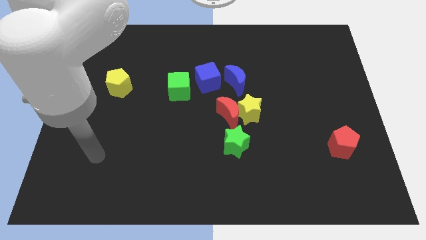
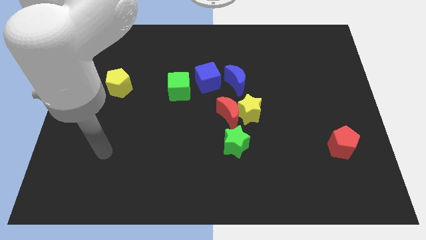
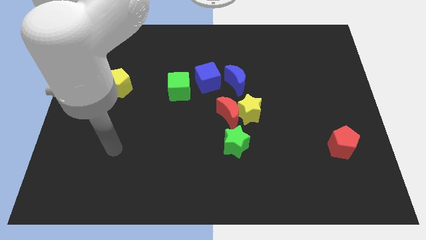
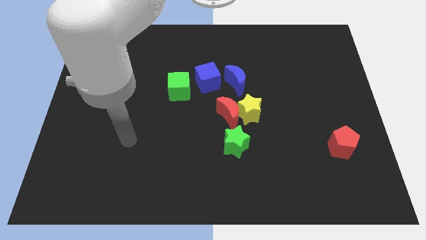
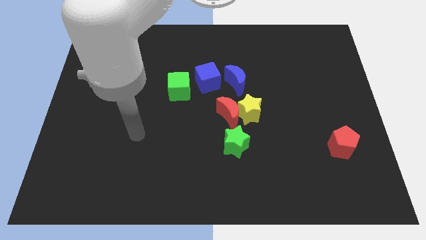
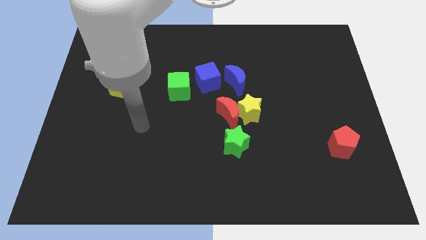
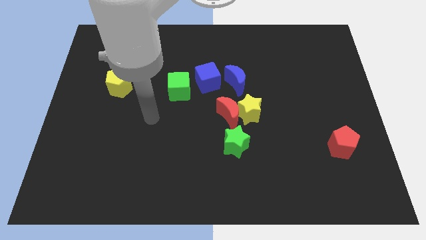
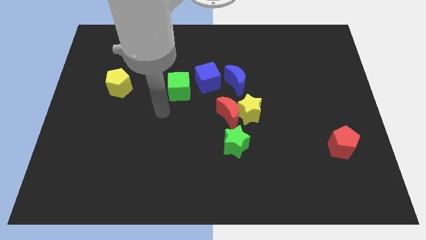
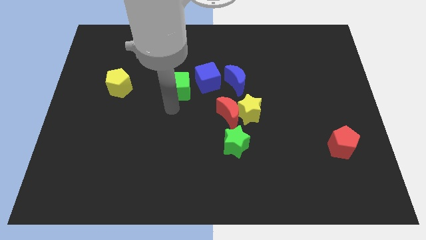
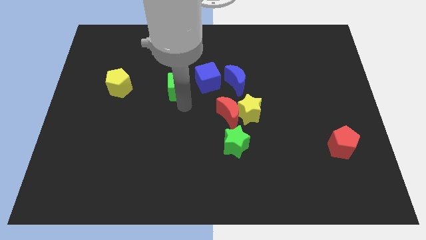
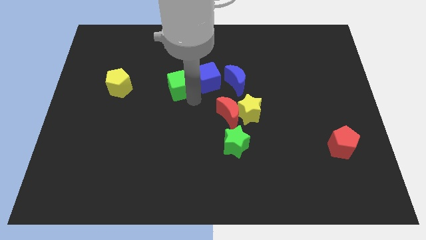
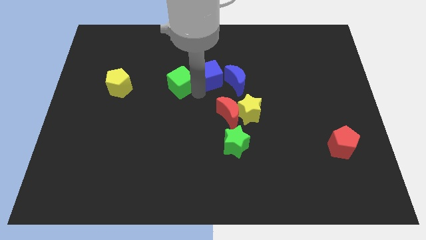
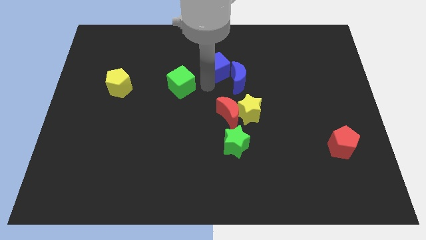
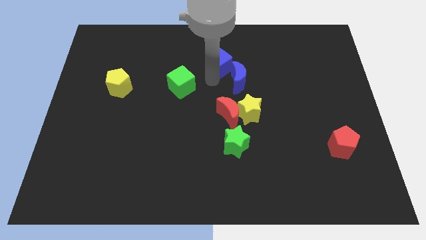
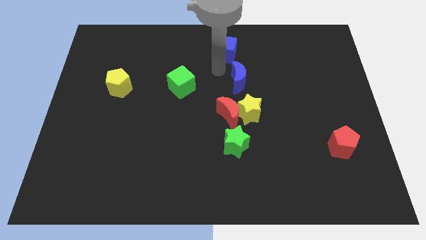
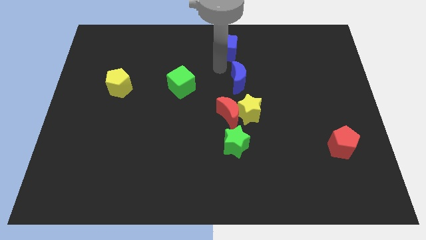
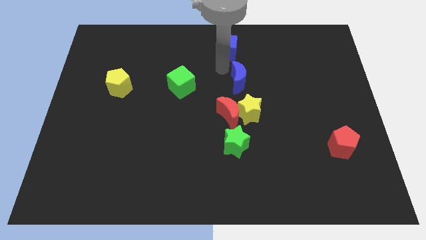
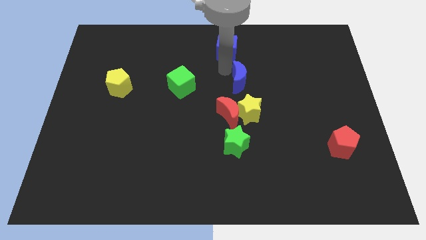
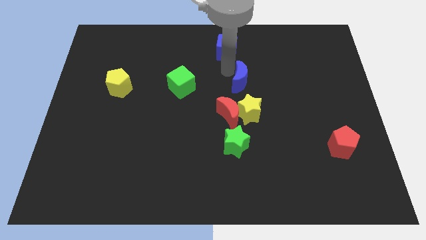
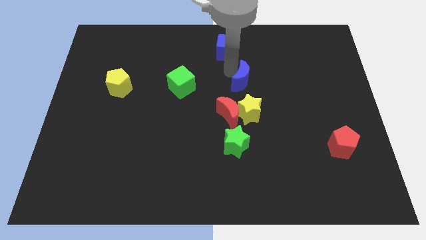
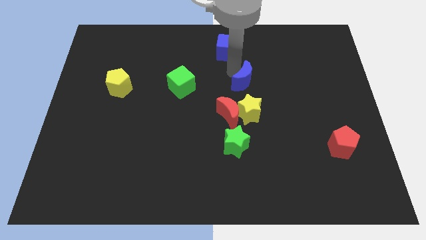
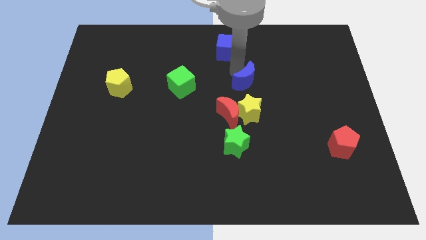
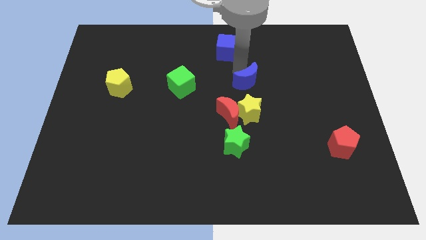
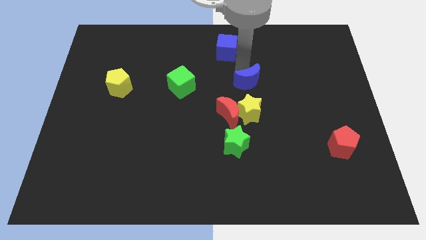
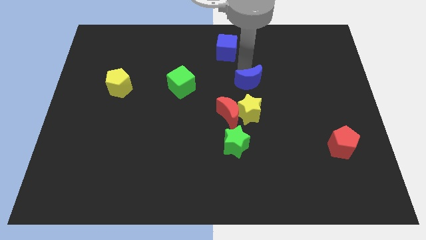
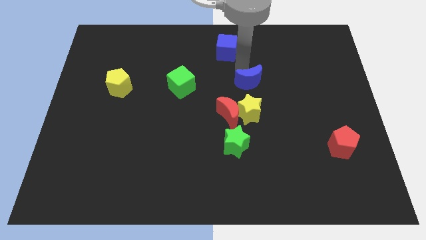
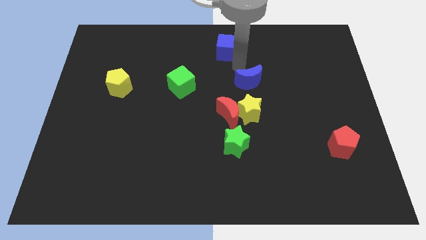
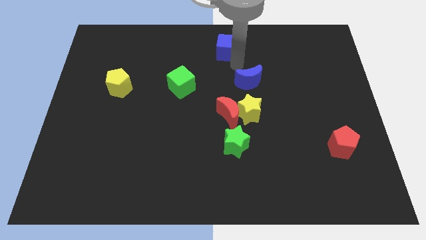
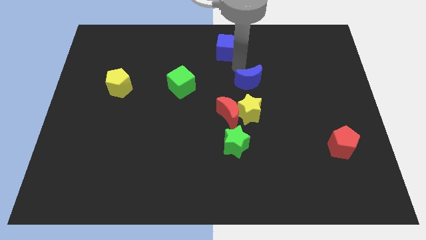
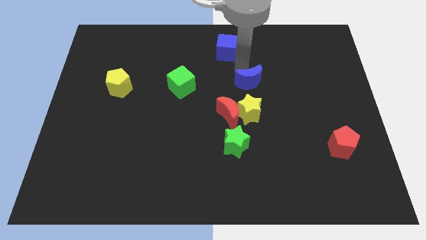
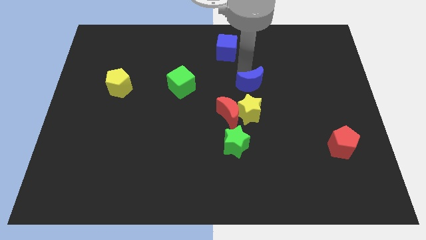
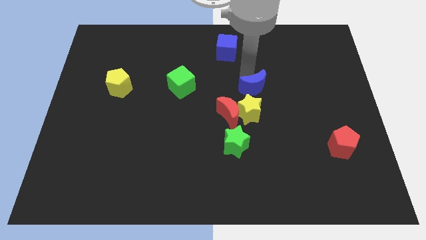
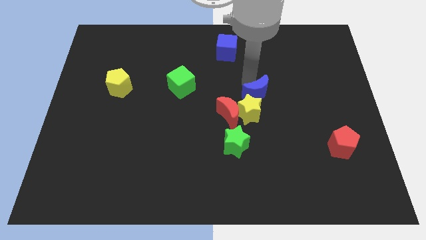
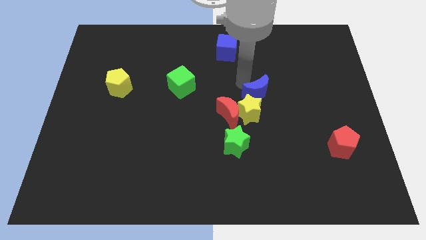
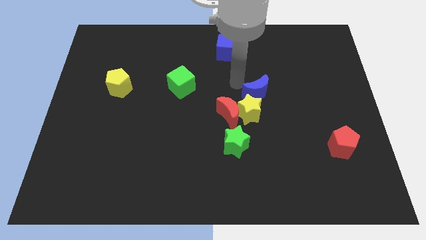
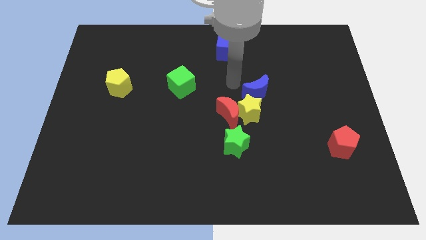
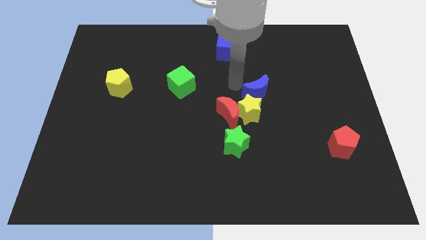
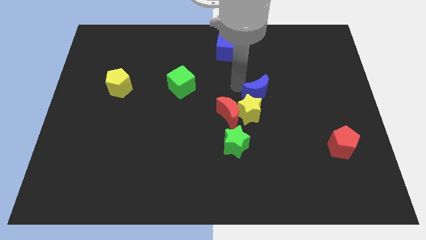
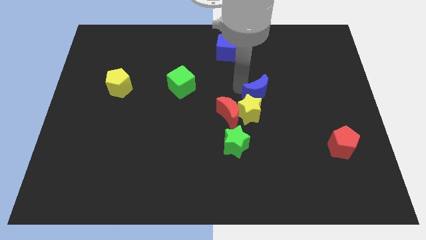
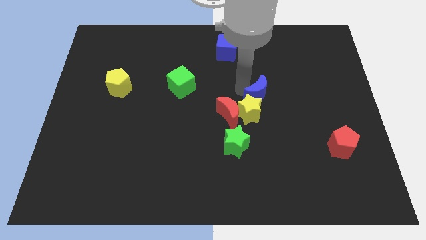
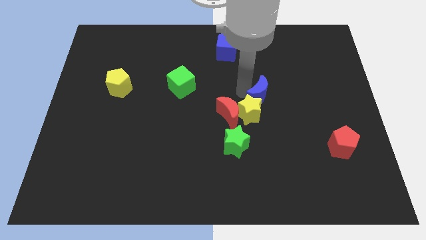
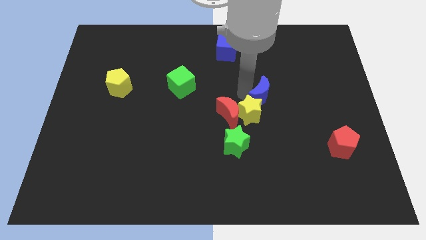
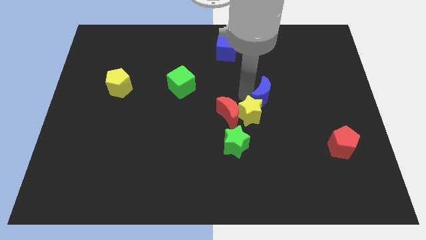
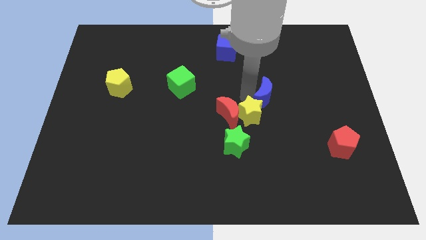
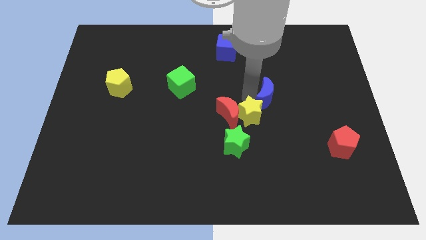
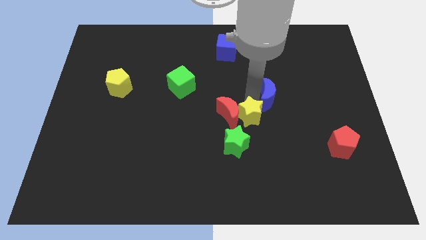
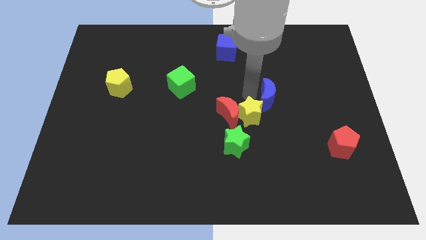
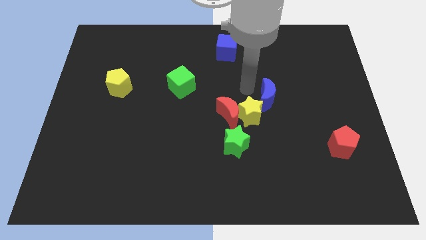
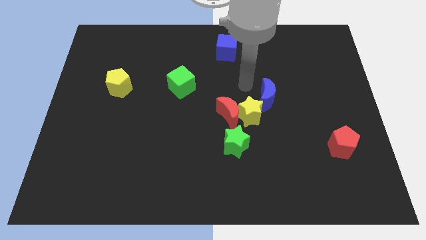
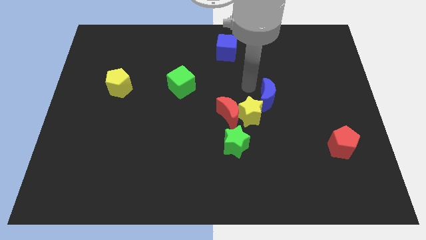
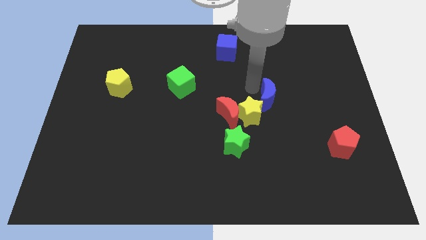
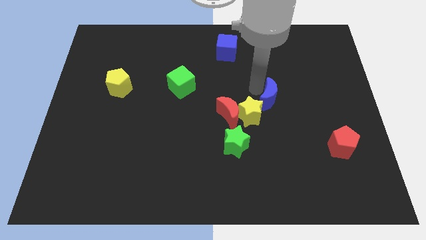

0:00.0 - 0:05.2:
push the blue moon right of the yellow star

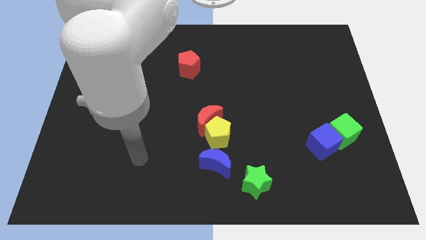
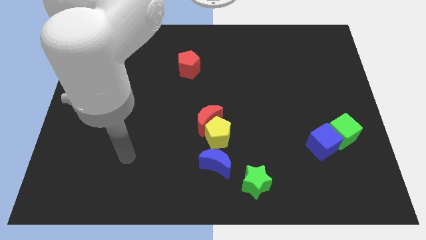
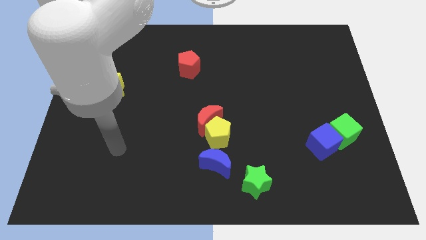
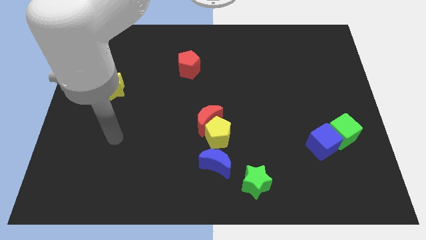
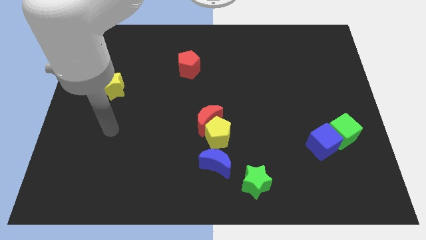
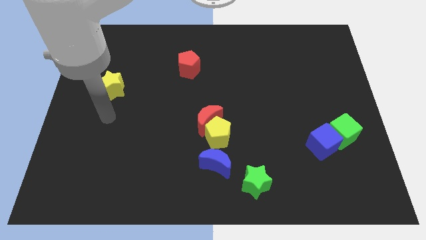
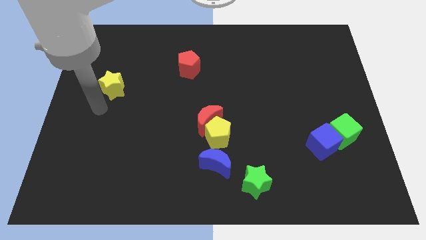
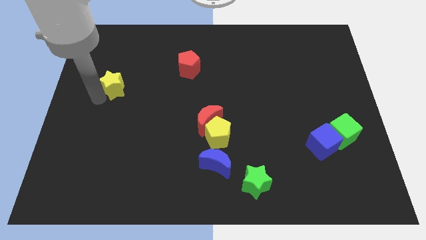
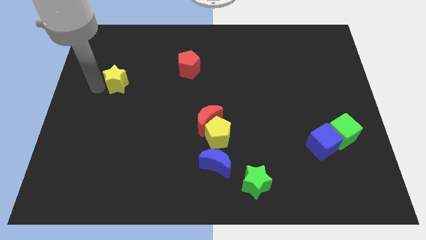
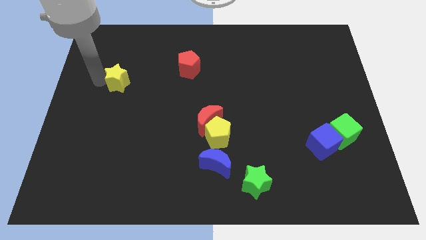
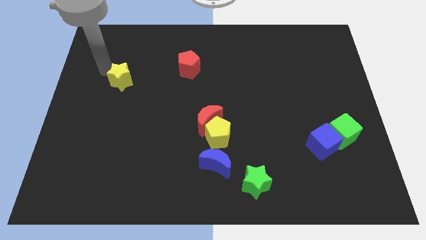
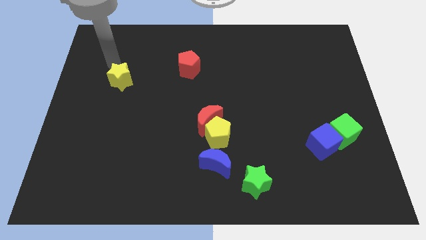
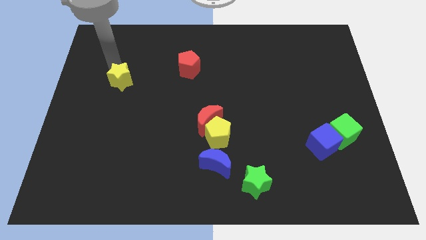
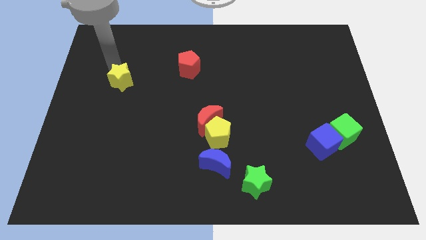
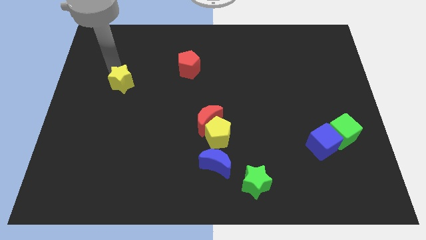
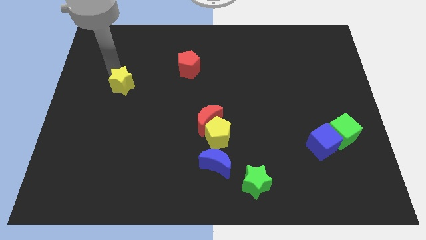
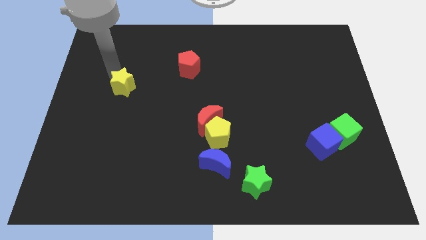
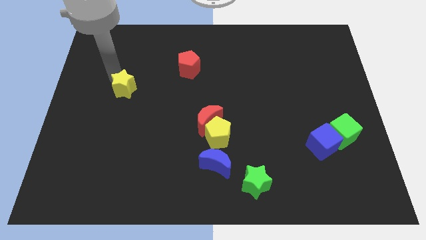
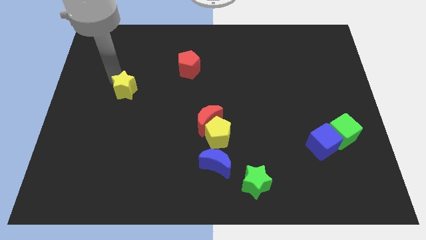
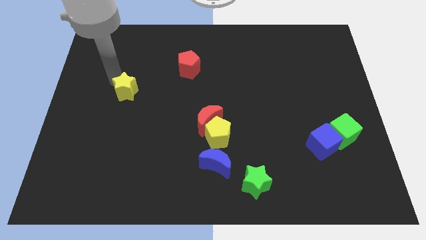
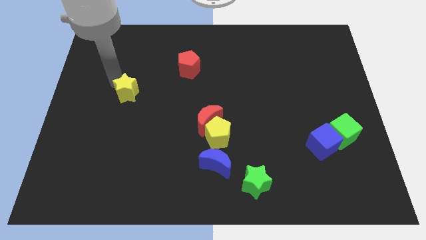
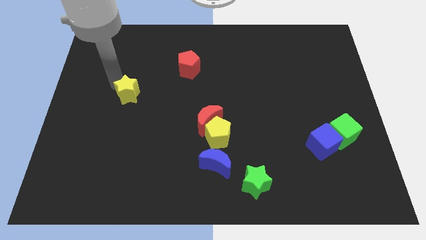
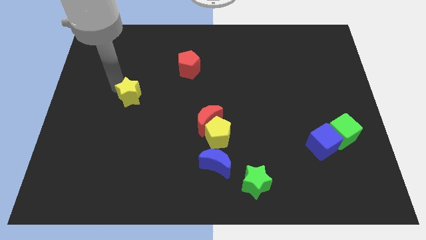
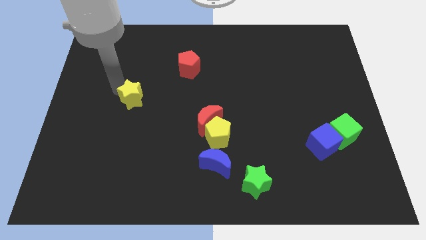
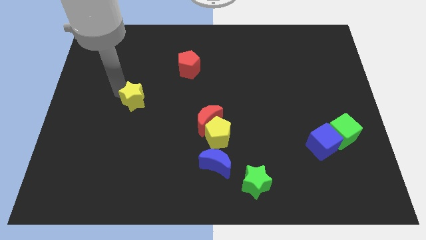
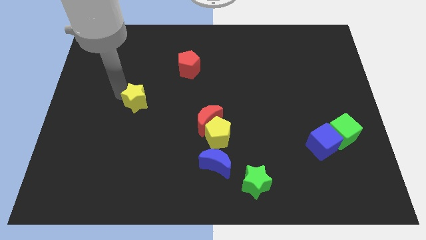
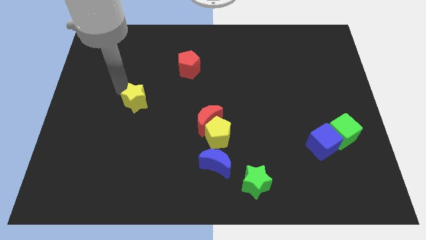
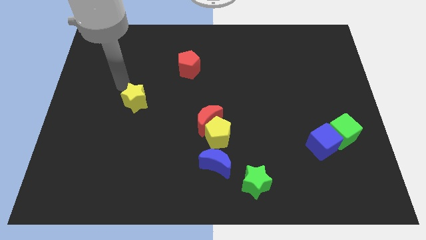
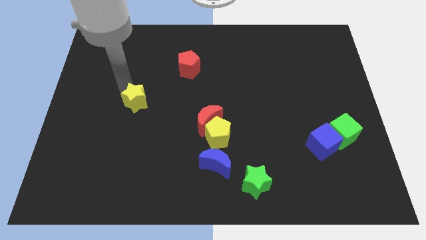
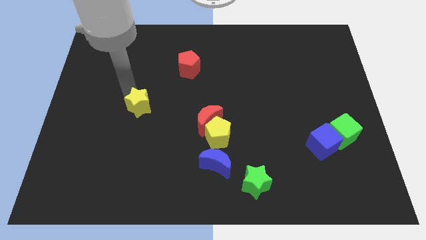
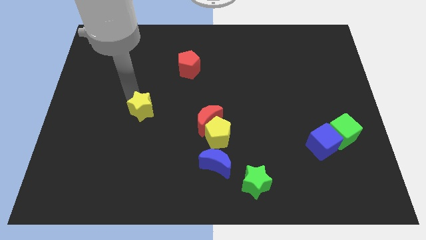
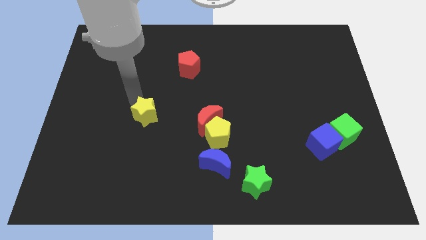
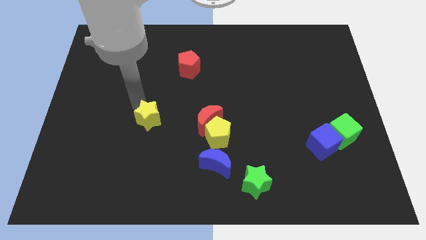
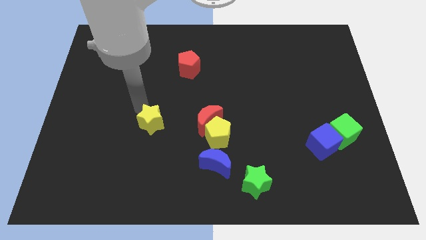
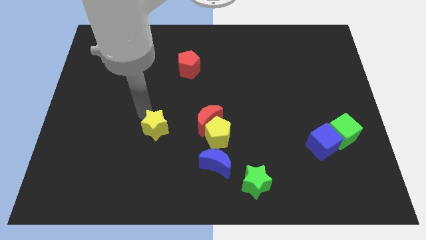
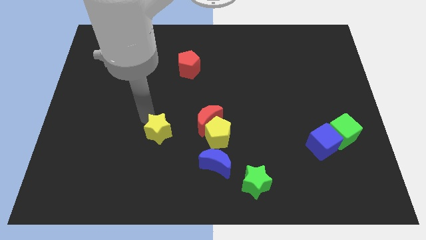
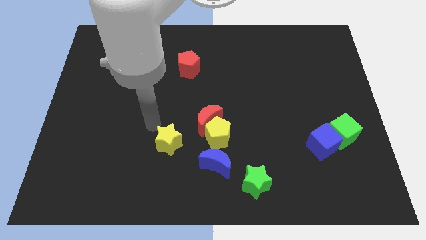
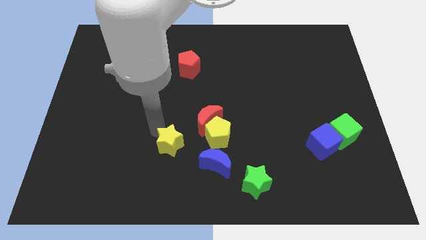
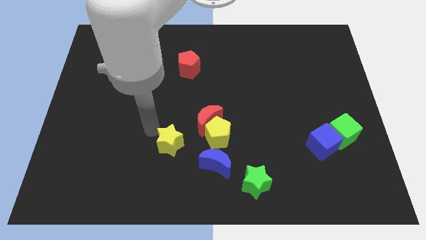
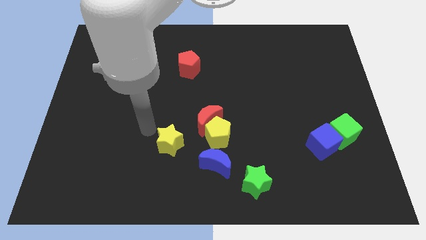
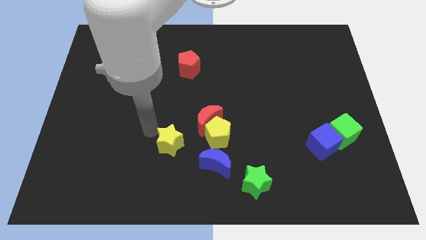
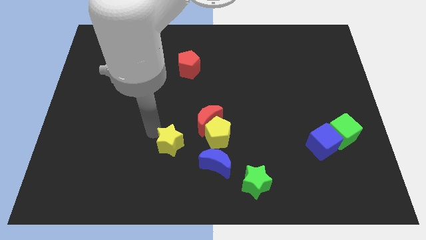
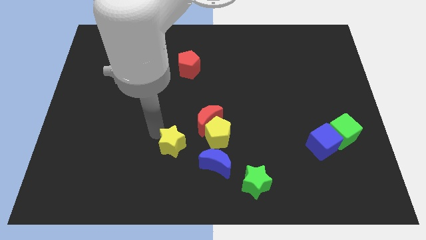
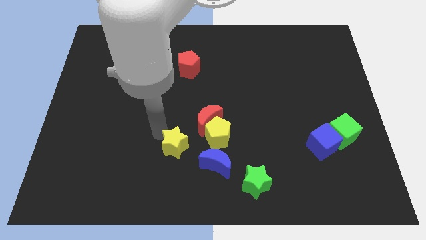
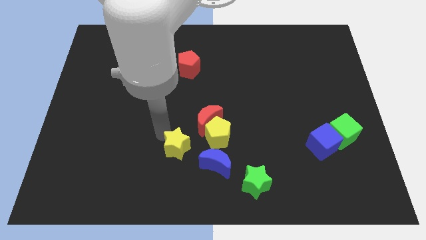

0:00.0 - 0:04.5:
move the yellow star diagonally down and to the left of the yellow pentagon
